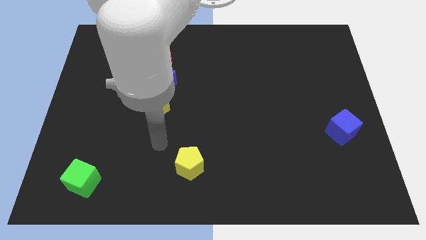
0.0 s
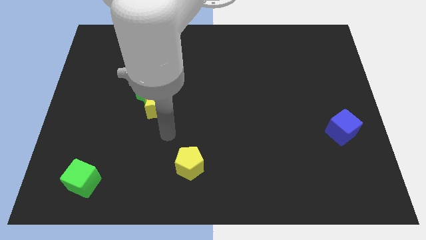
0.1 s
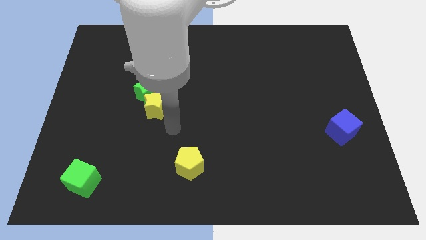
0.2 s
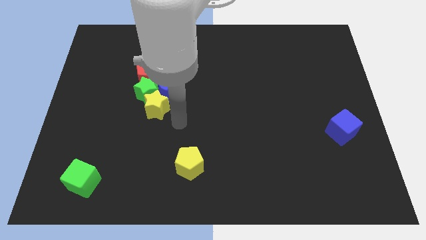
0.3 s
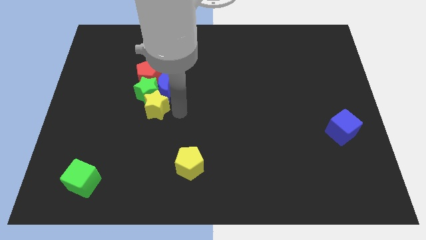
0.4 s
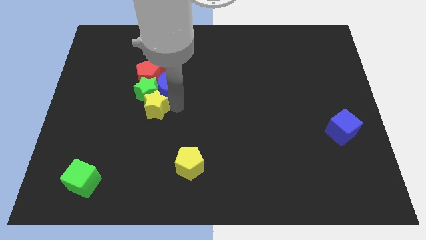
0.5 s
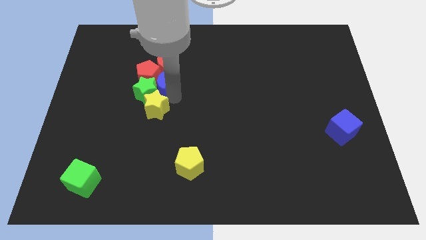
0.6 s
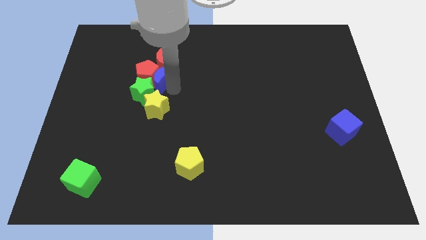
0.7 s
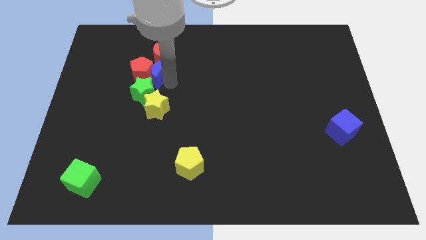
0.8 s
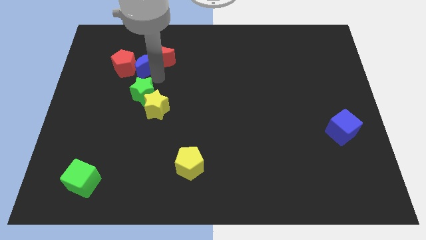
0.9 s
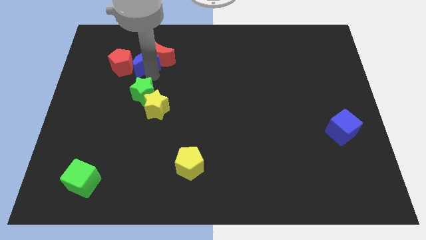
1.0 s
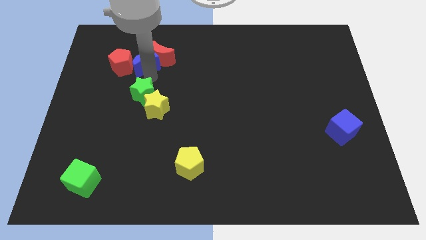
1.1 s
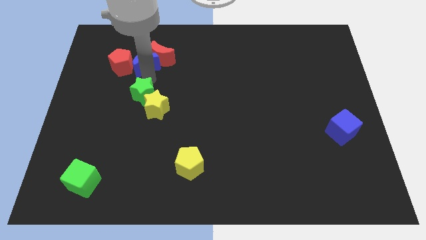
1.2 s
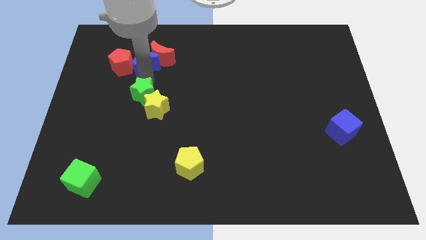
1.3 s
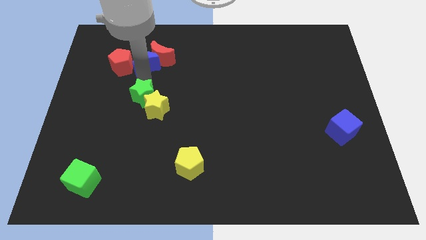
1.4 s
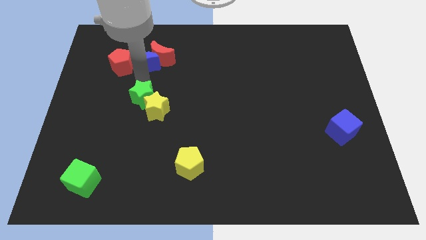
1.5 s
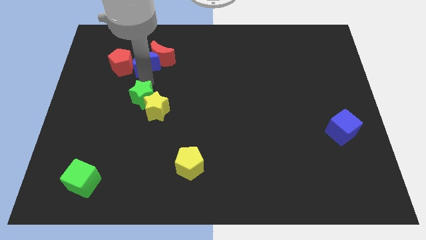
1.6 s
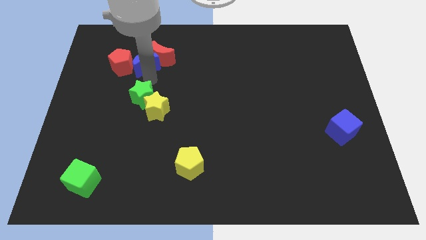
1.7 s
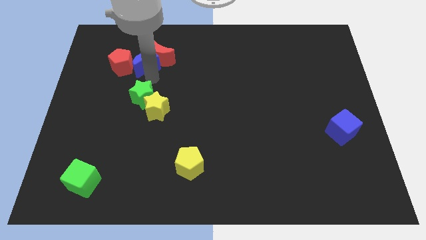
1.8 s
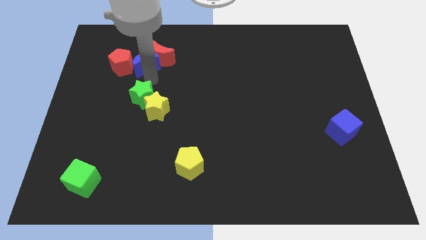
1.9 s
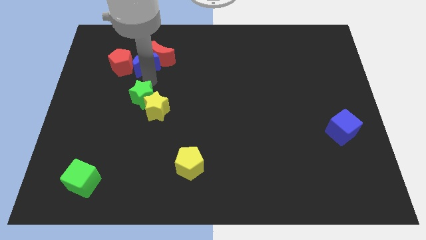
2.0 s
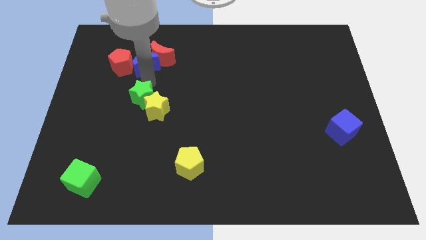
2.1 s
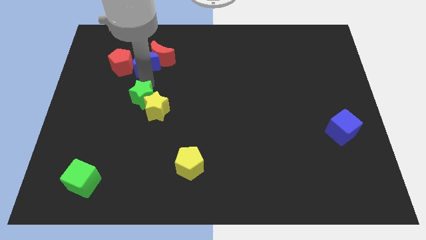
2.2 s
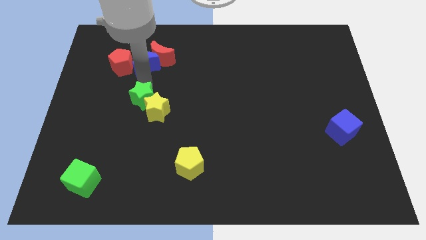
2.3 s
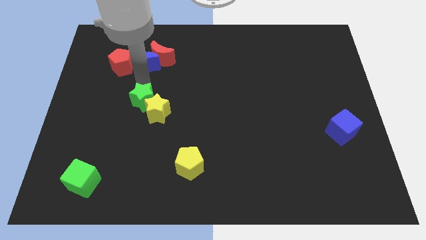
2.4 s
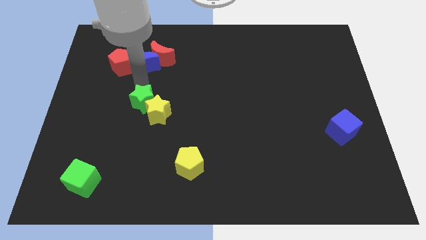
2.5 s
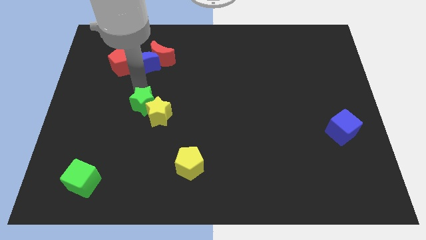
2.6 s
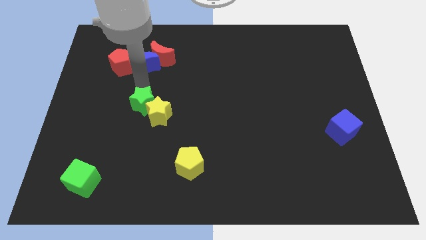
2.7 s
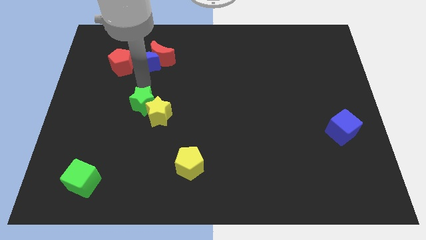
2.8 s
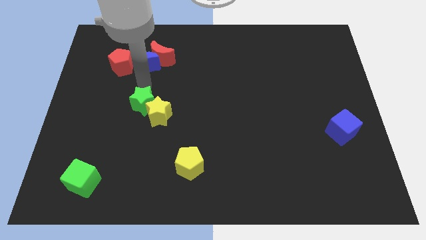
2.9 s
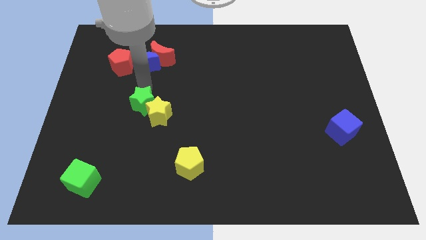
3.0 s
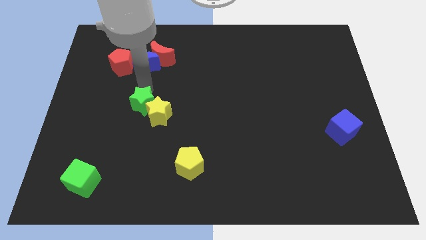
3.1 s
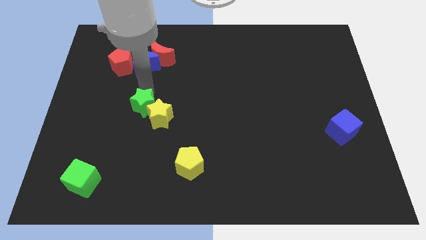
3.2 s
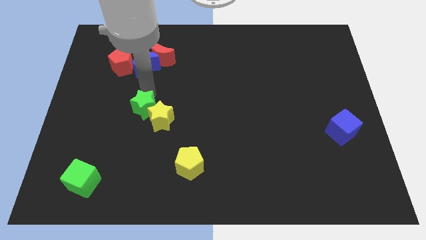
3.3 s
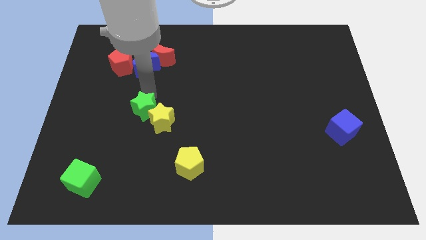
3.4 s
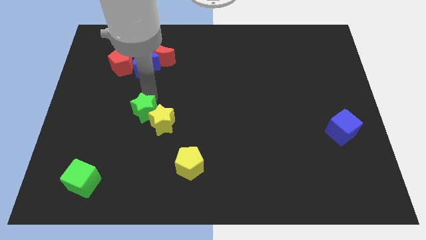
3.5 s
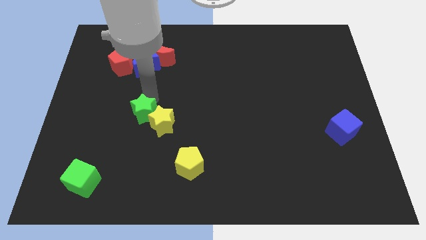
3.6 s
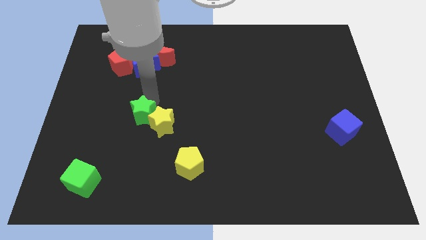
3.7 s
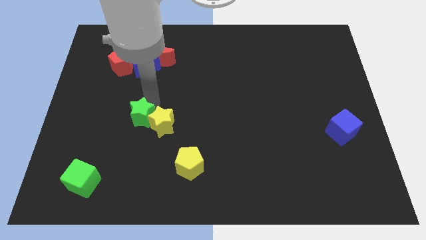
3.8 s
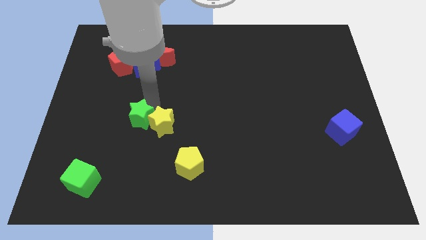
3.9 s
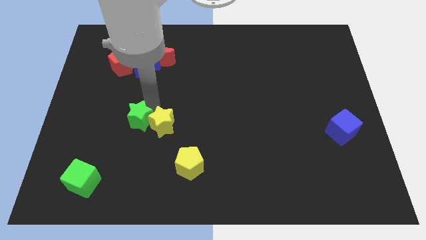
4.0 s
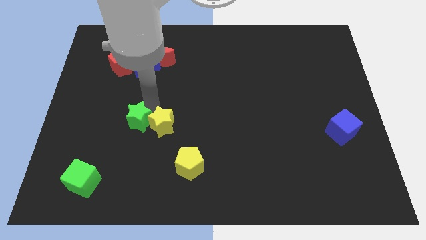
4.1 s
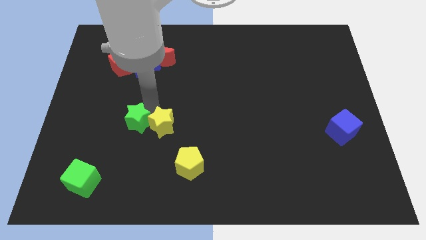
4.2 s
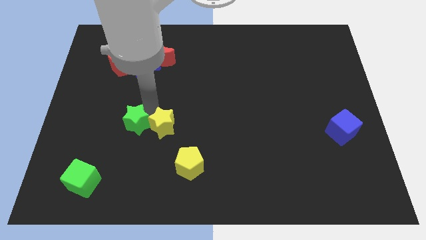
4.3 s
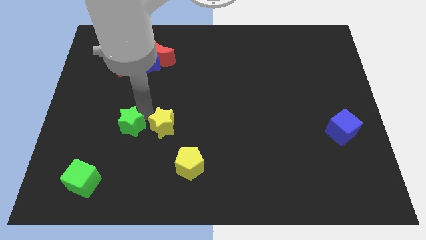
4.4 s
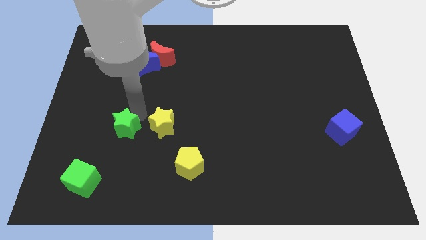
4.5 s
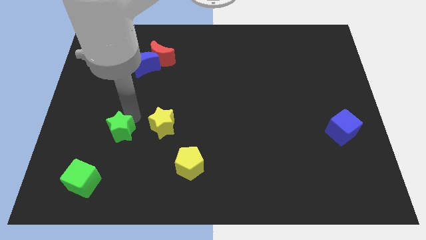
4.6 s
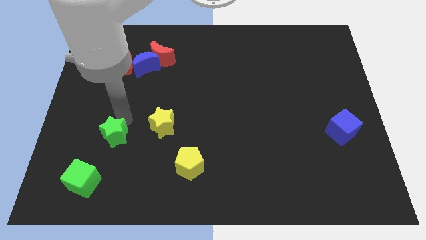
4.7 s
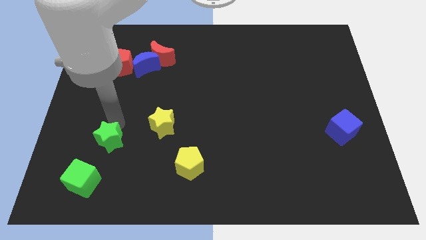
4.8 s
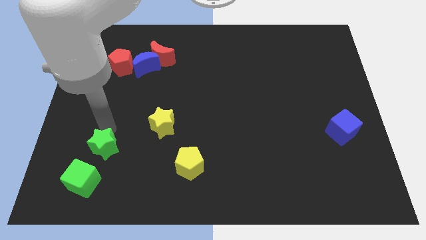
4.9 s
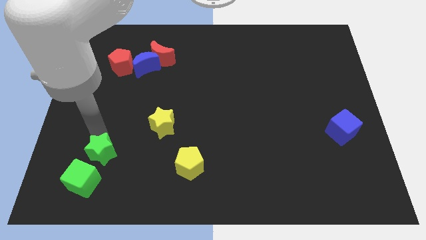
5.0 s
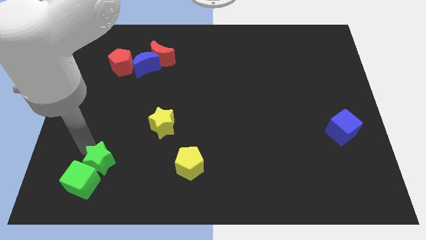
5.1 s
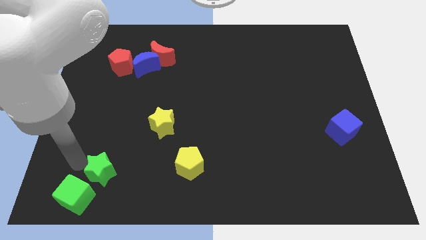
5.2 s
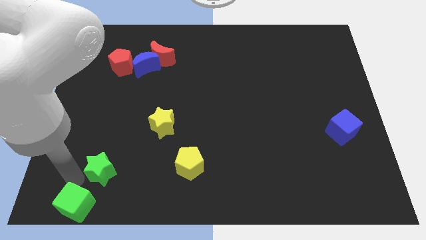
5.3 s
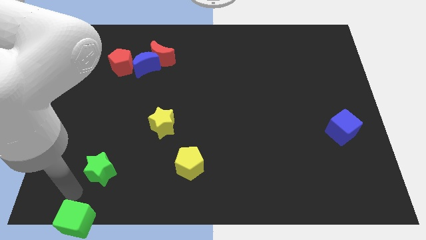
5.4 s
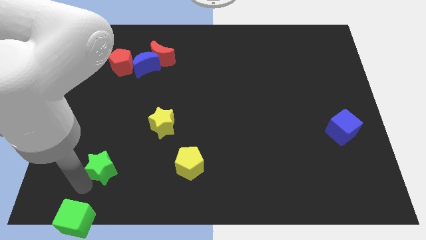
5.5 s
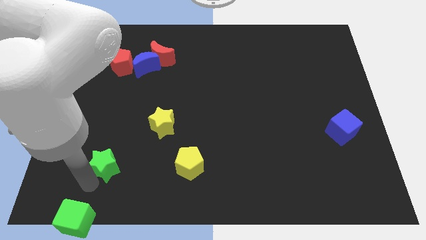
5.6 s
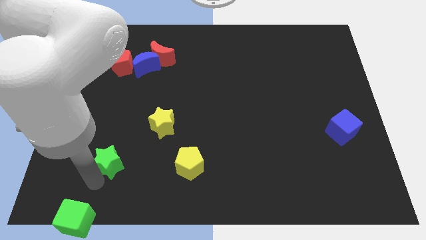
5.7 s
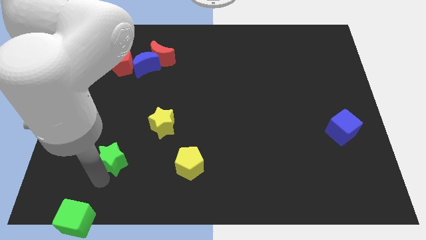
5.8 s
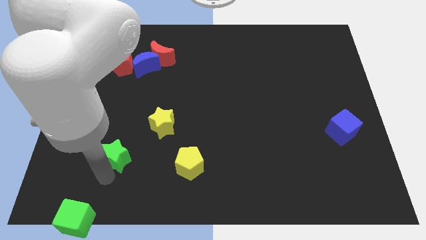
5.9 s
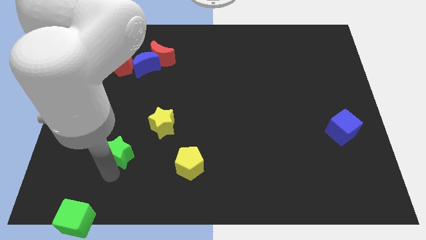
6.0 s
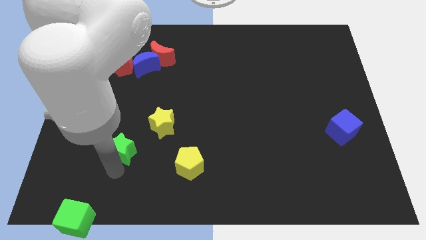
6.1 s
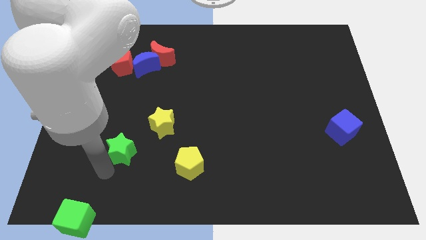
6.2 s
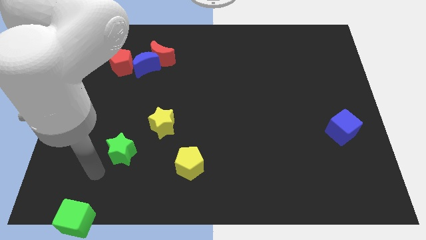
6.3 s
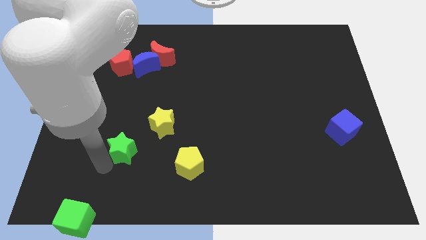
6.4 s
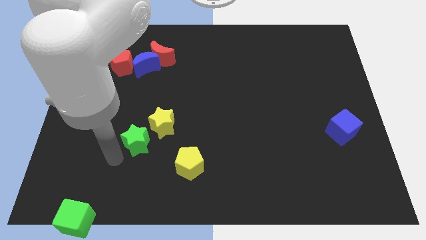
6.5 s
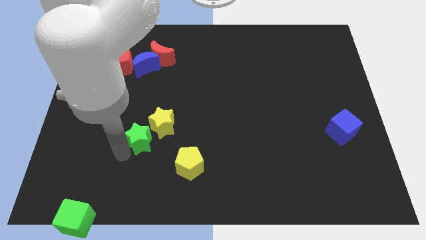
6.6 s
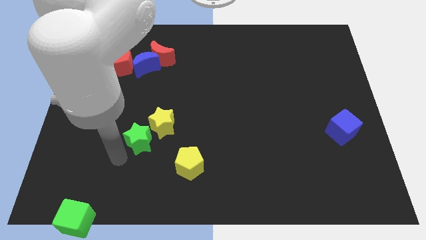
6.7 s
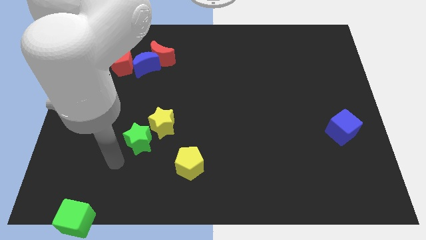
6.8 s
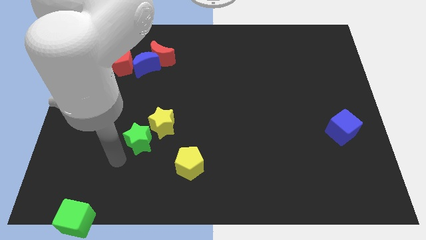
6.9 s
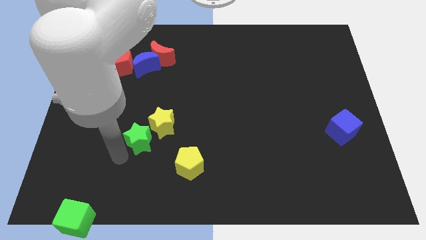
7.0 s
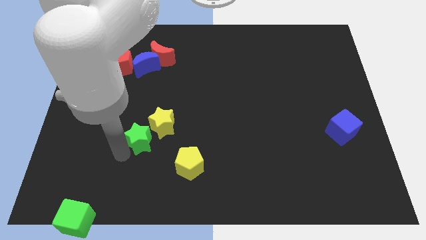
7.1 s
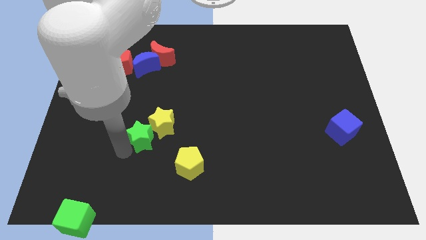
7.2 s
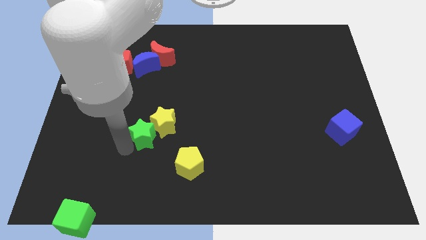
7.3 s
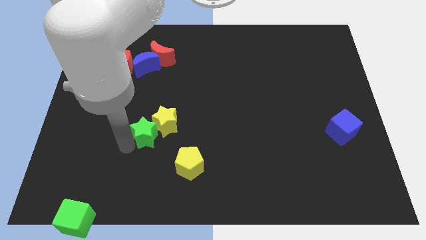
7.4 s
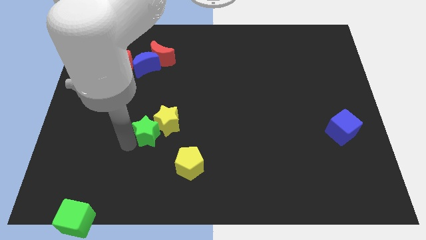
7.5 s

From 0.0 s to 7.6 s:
move the green star a bit down and to the right
